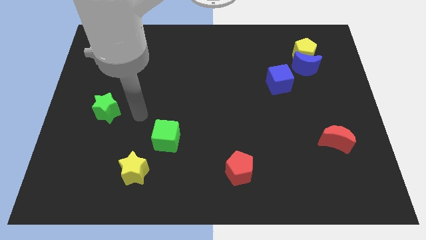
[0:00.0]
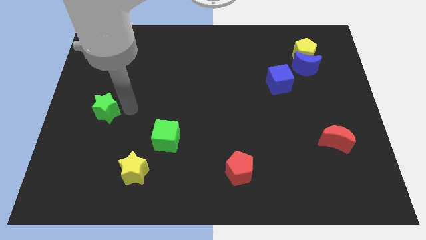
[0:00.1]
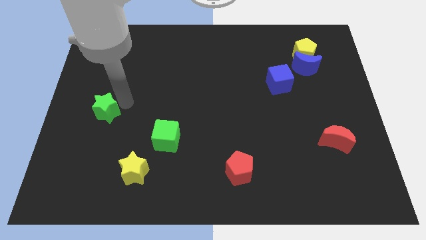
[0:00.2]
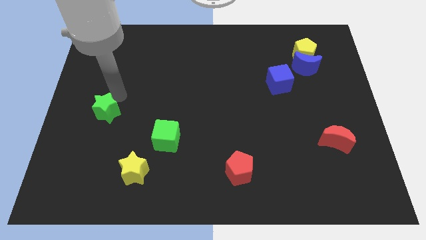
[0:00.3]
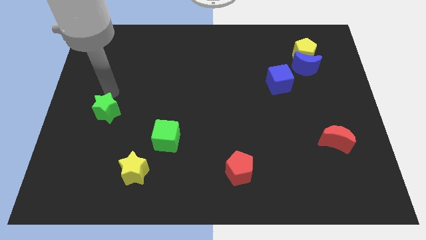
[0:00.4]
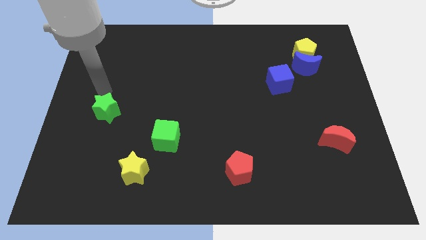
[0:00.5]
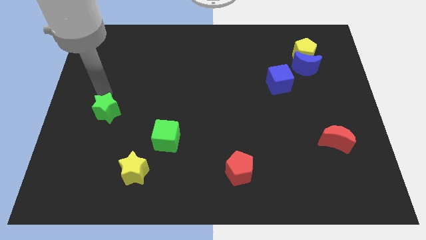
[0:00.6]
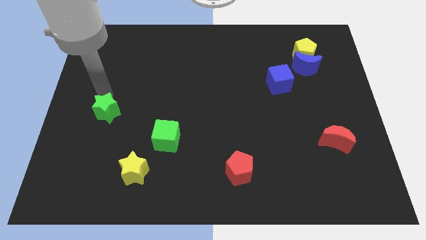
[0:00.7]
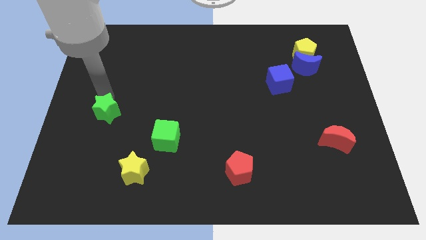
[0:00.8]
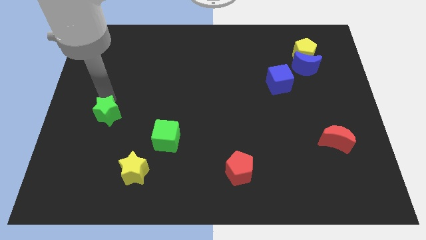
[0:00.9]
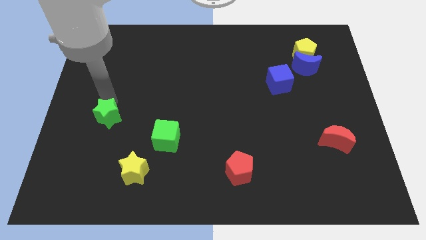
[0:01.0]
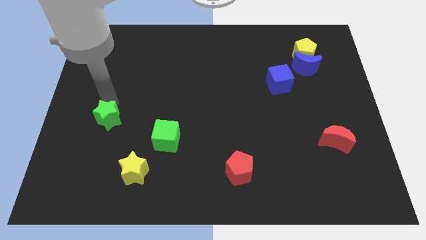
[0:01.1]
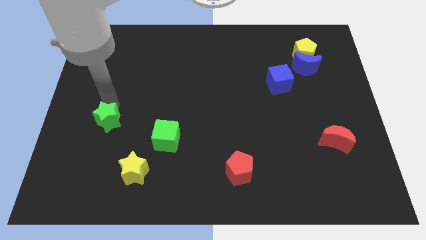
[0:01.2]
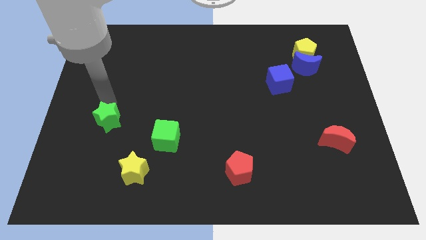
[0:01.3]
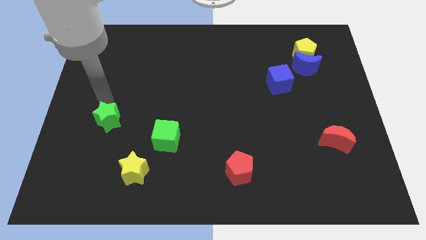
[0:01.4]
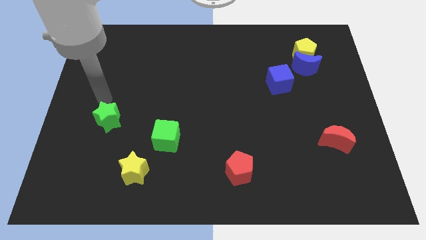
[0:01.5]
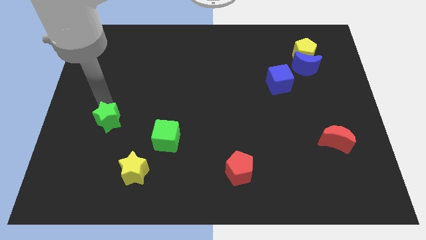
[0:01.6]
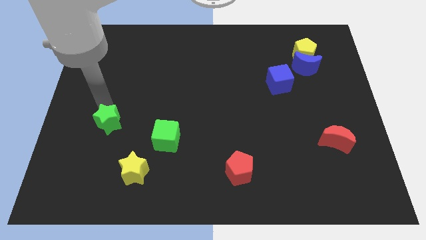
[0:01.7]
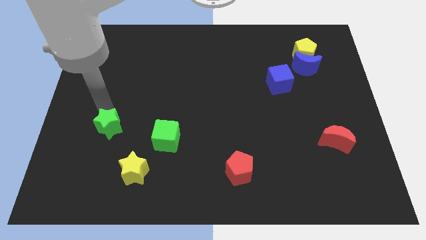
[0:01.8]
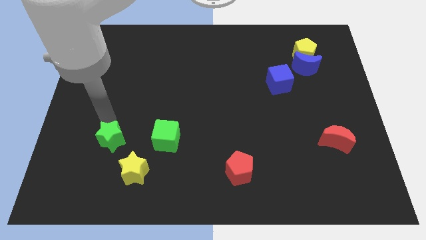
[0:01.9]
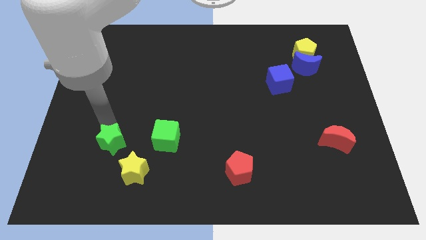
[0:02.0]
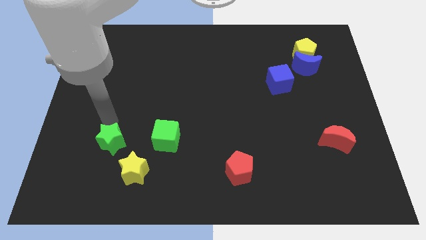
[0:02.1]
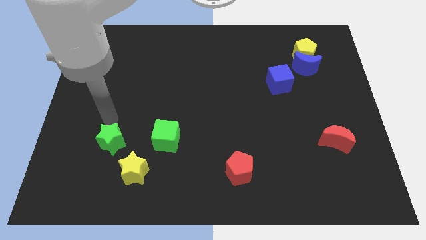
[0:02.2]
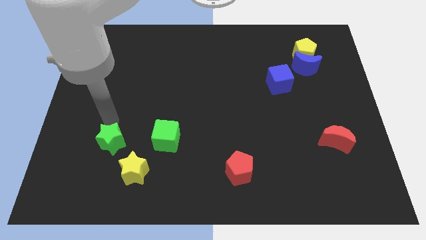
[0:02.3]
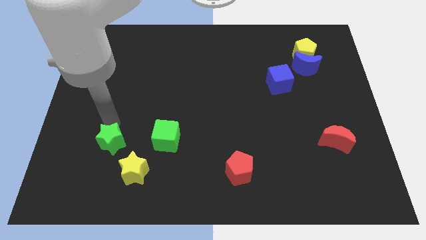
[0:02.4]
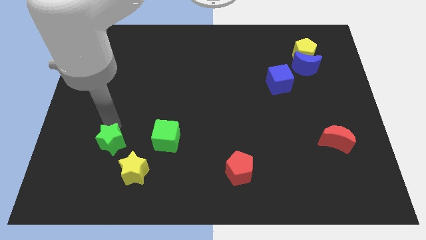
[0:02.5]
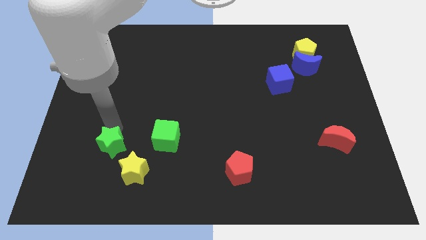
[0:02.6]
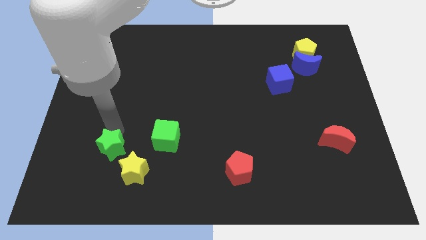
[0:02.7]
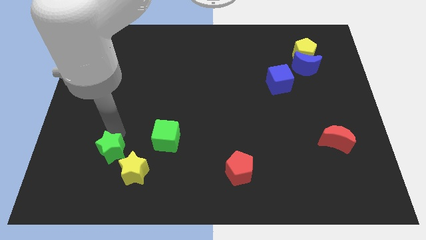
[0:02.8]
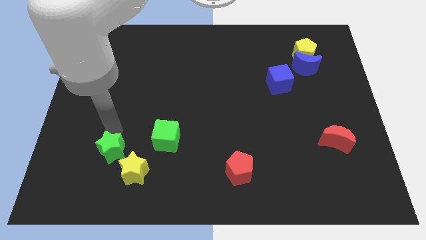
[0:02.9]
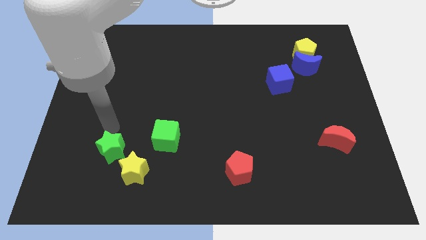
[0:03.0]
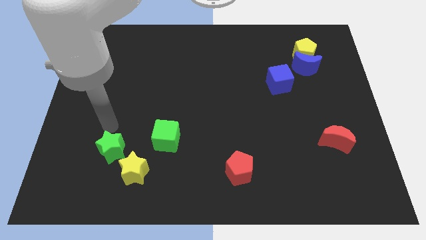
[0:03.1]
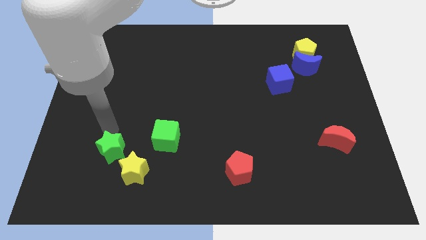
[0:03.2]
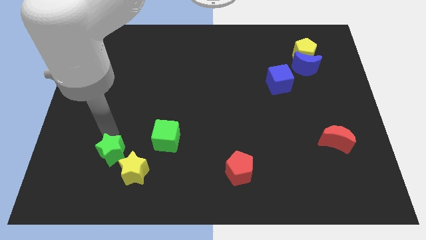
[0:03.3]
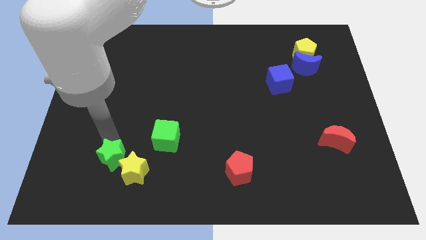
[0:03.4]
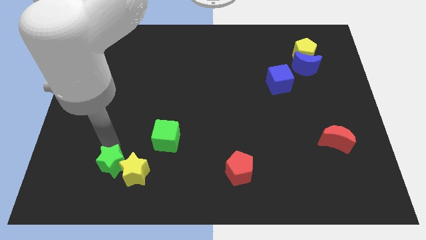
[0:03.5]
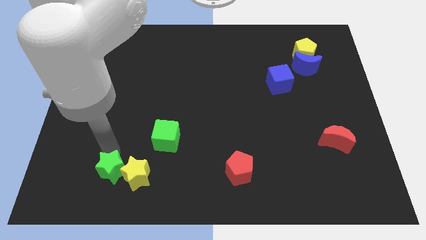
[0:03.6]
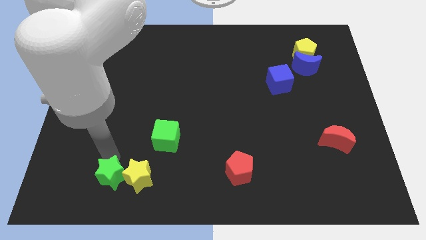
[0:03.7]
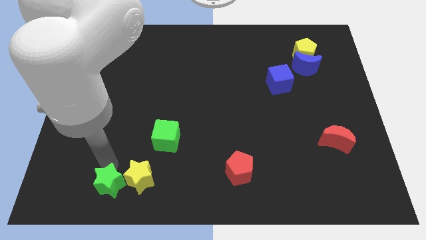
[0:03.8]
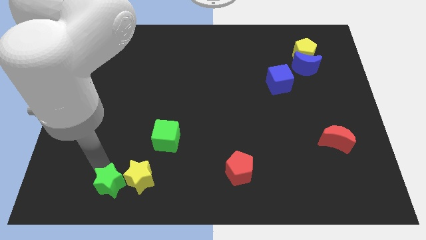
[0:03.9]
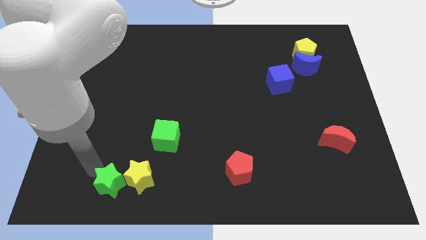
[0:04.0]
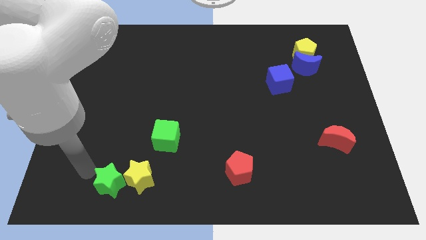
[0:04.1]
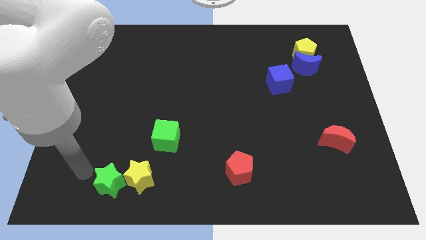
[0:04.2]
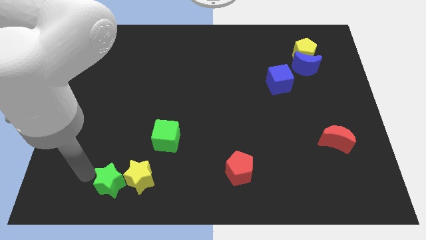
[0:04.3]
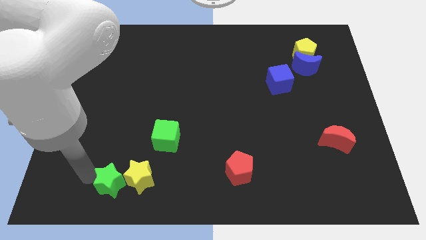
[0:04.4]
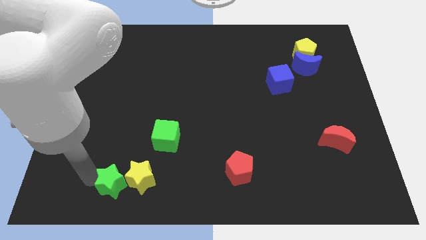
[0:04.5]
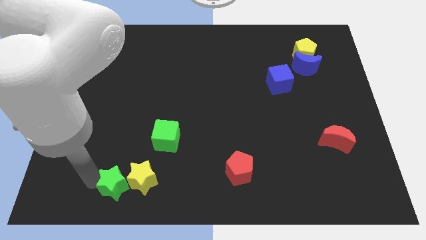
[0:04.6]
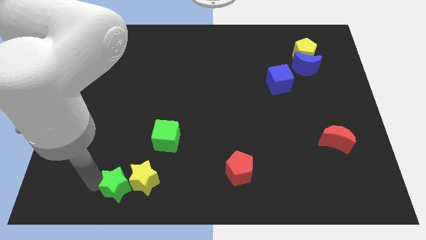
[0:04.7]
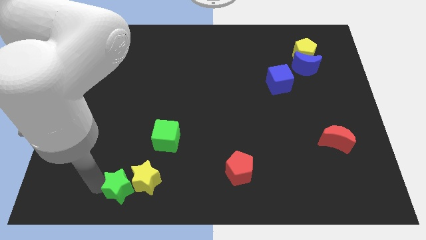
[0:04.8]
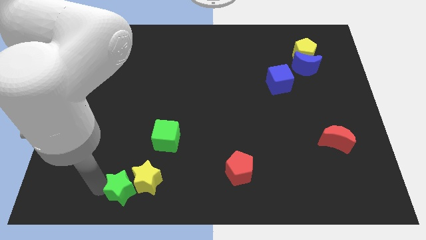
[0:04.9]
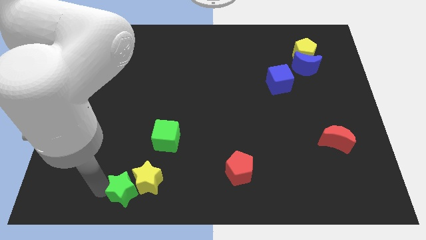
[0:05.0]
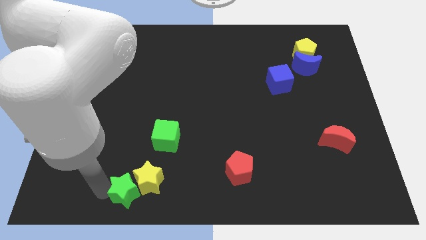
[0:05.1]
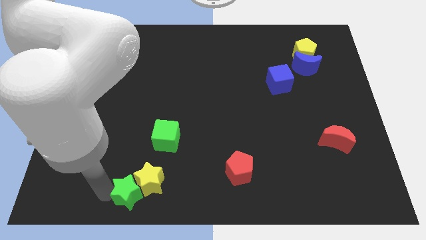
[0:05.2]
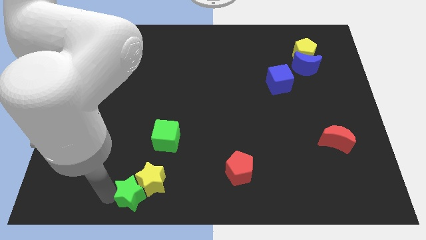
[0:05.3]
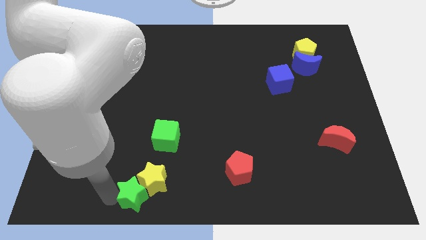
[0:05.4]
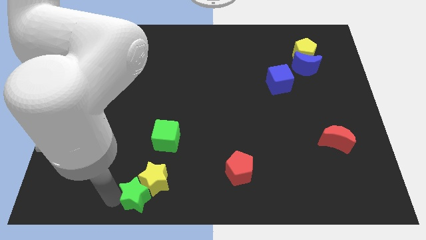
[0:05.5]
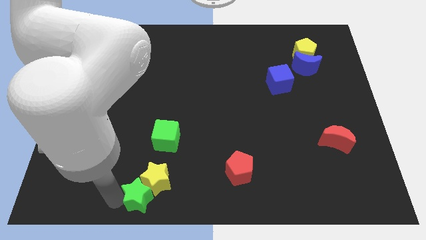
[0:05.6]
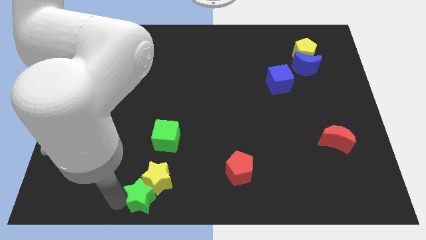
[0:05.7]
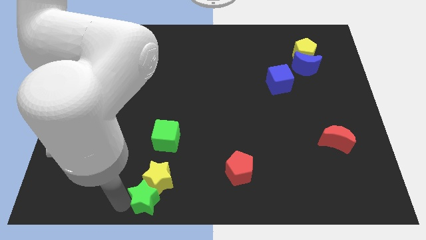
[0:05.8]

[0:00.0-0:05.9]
slide the green star to the bottom side
